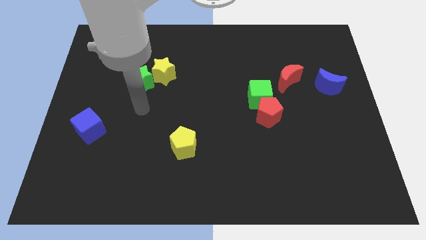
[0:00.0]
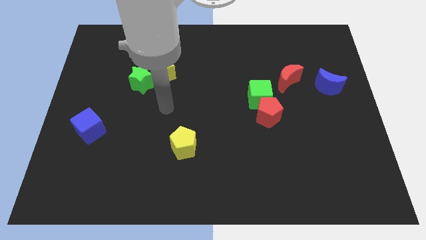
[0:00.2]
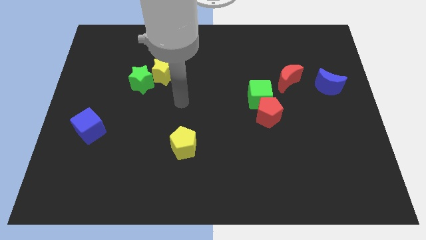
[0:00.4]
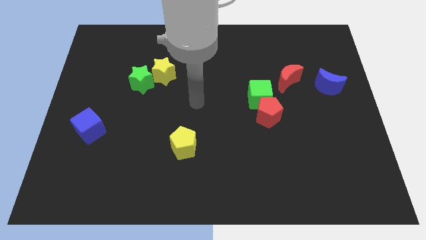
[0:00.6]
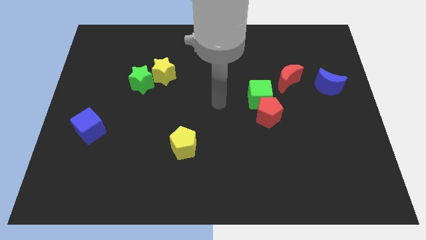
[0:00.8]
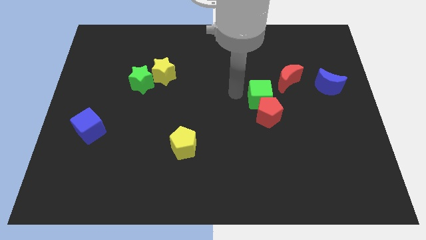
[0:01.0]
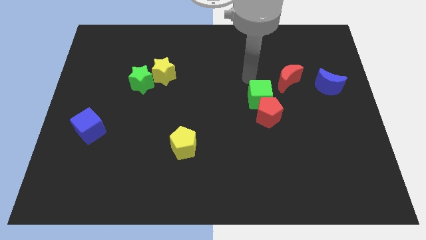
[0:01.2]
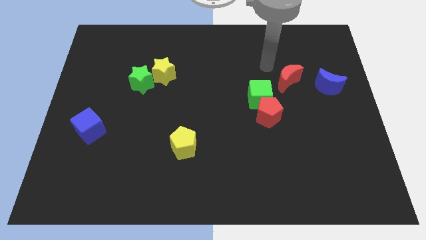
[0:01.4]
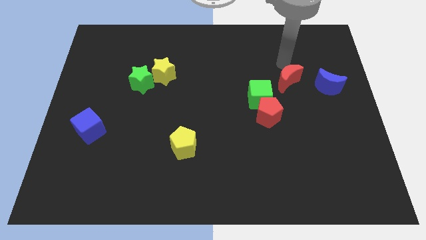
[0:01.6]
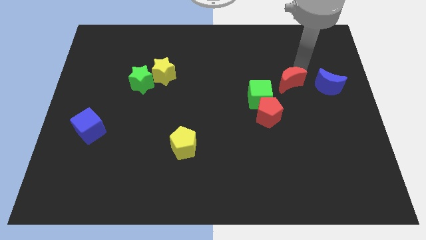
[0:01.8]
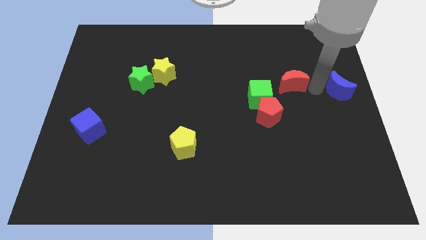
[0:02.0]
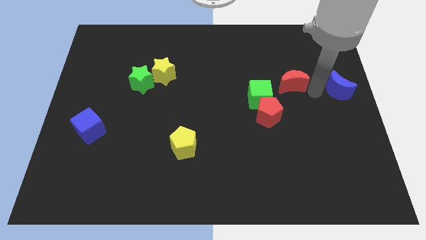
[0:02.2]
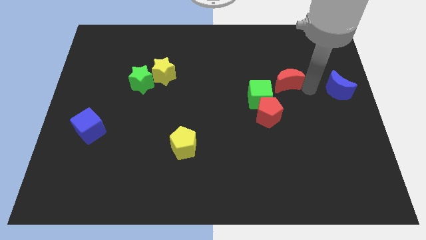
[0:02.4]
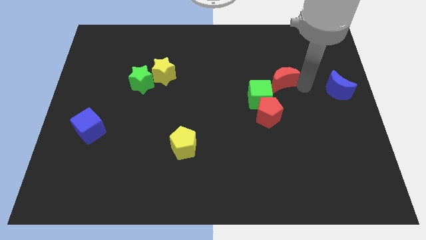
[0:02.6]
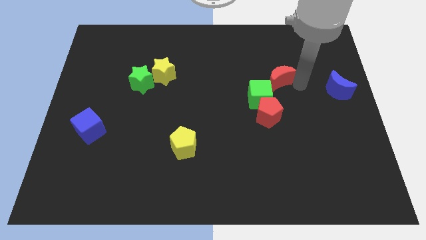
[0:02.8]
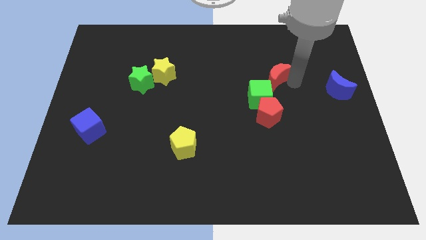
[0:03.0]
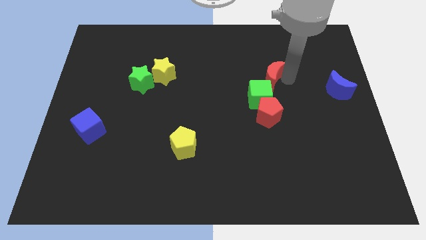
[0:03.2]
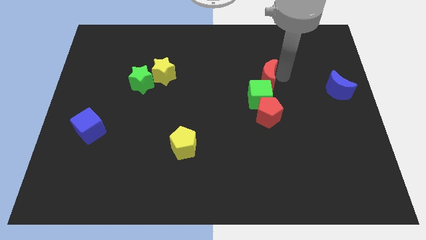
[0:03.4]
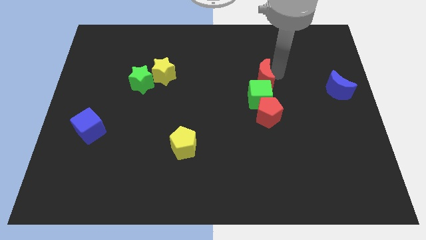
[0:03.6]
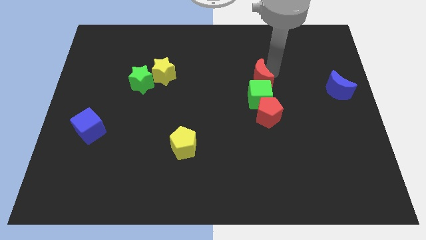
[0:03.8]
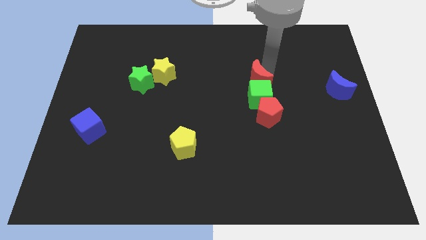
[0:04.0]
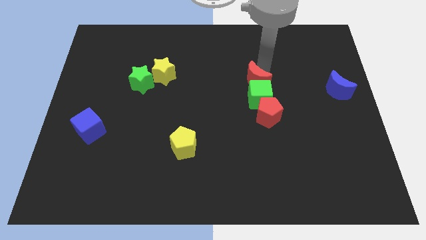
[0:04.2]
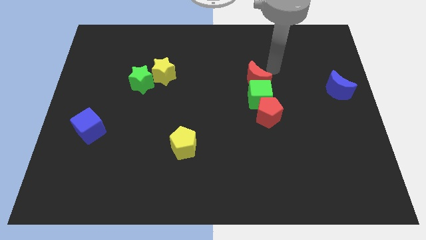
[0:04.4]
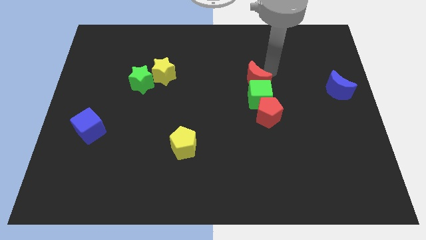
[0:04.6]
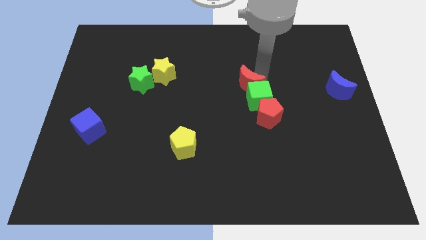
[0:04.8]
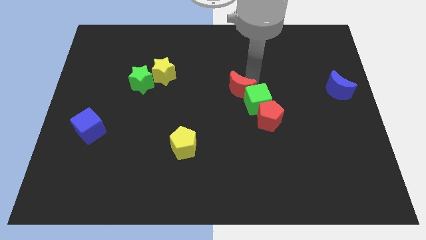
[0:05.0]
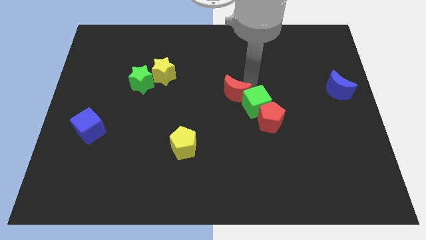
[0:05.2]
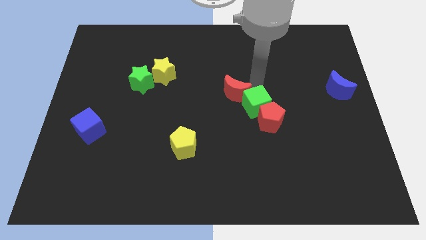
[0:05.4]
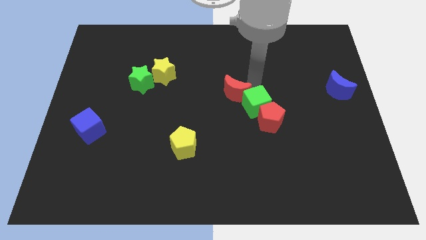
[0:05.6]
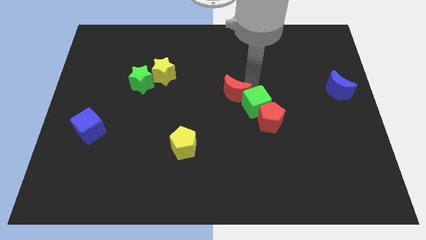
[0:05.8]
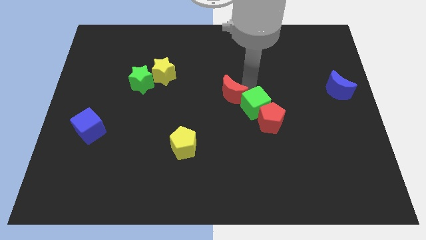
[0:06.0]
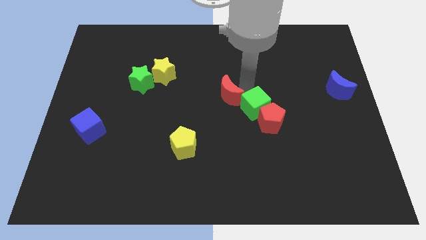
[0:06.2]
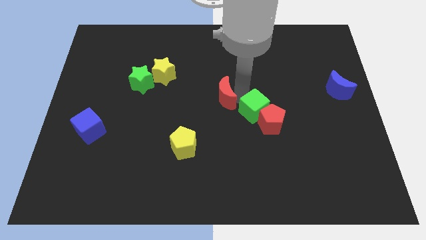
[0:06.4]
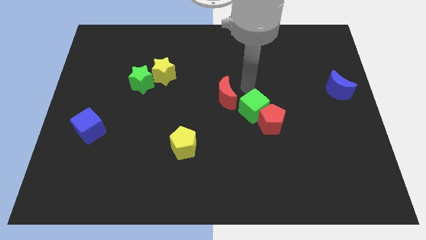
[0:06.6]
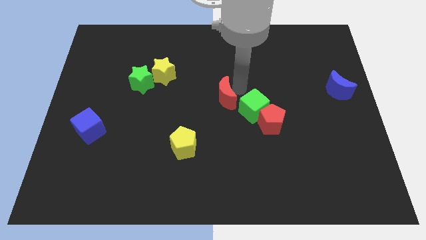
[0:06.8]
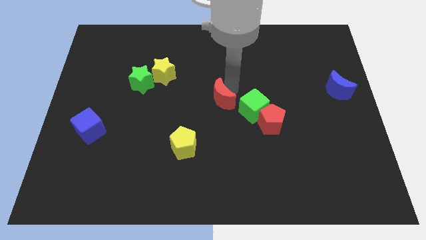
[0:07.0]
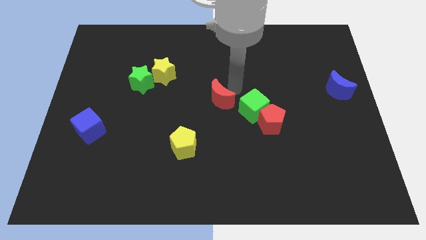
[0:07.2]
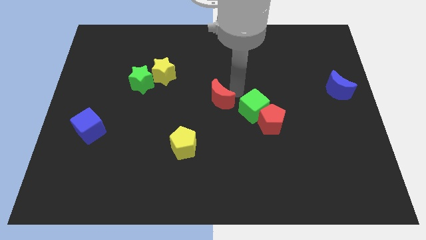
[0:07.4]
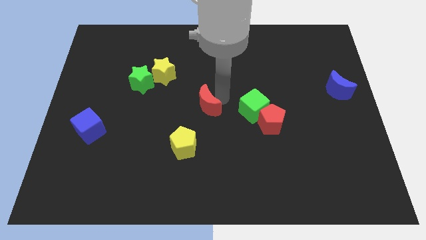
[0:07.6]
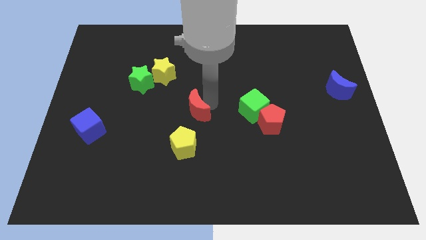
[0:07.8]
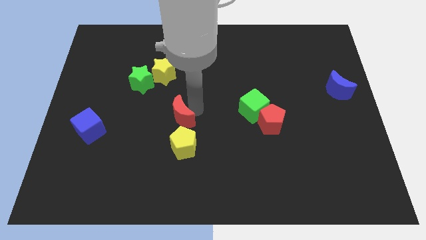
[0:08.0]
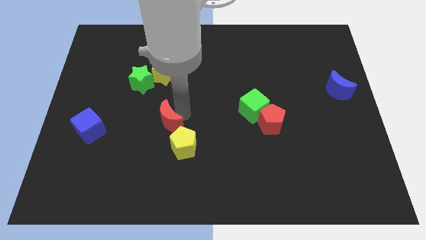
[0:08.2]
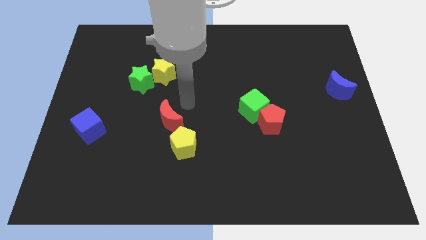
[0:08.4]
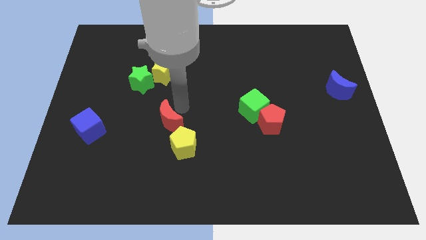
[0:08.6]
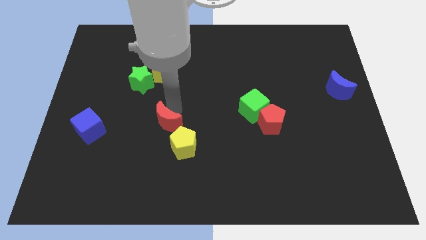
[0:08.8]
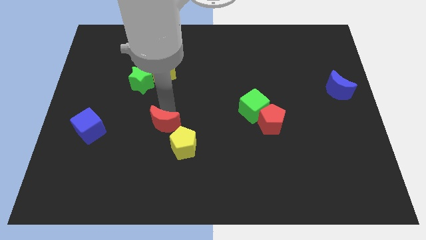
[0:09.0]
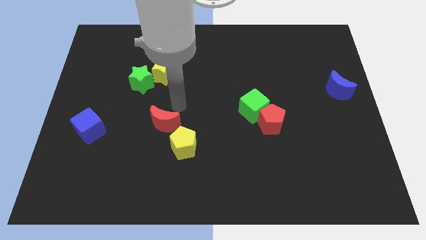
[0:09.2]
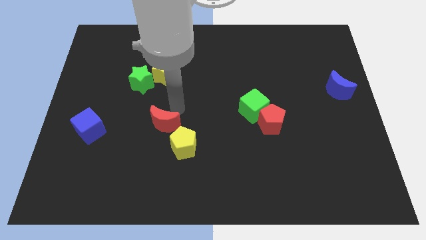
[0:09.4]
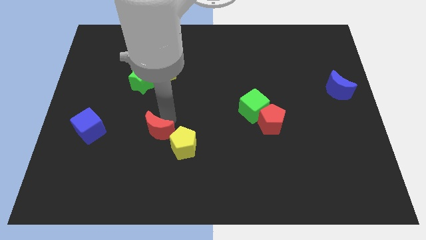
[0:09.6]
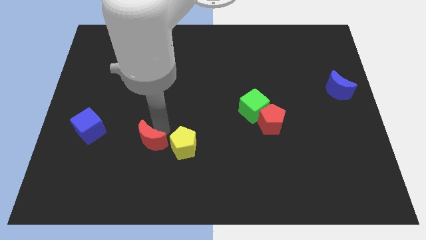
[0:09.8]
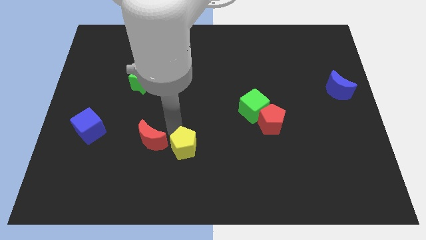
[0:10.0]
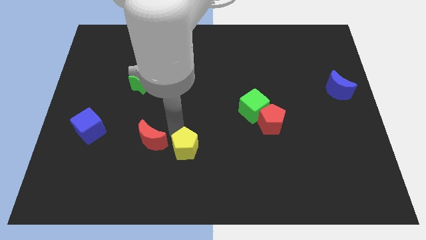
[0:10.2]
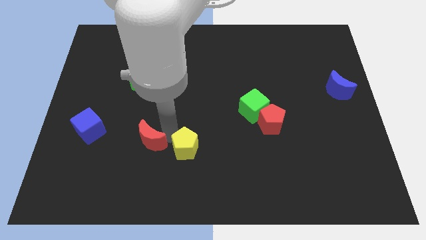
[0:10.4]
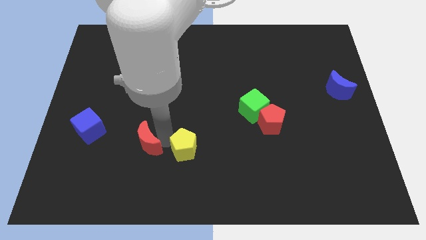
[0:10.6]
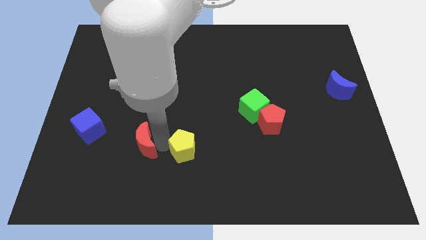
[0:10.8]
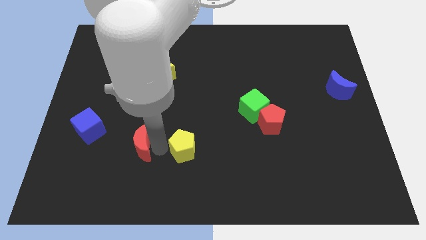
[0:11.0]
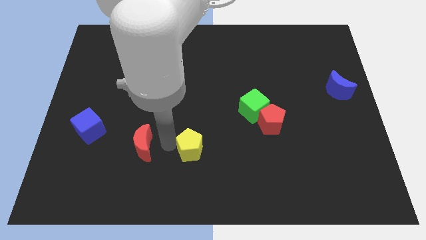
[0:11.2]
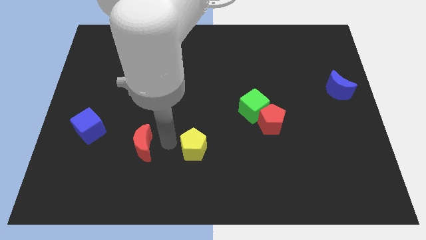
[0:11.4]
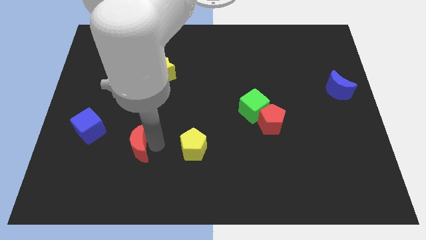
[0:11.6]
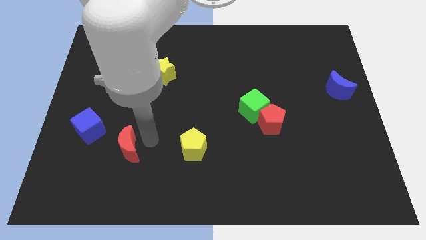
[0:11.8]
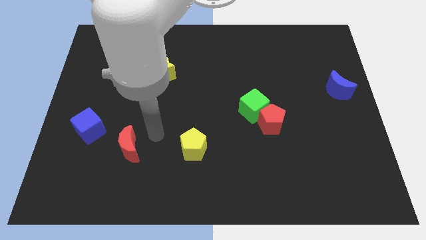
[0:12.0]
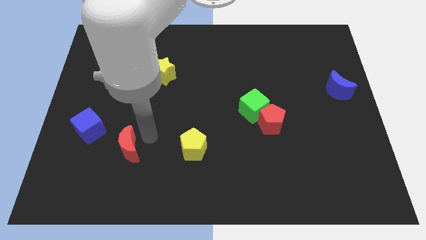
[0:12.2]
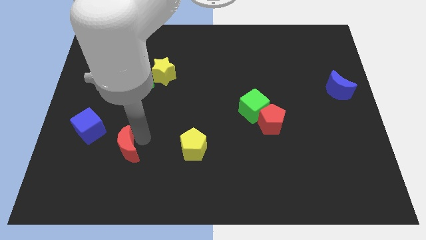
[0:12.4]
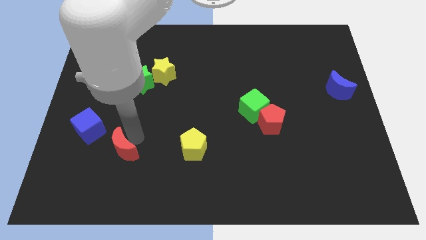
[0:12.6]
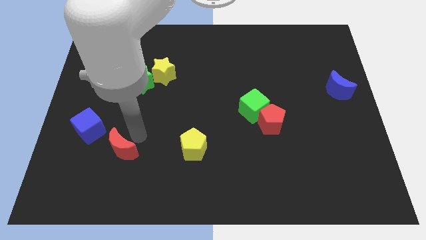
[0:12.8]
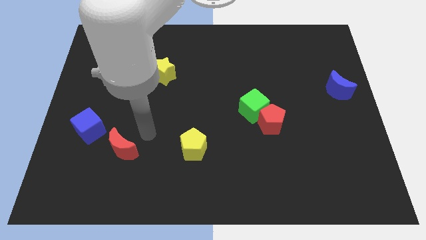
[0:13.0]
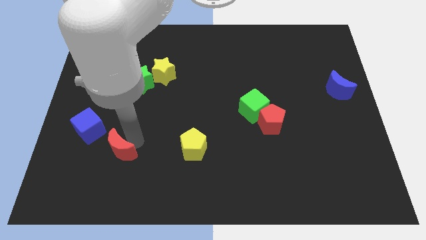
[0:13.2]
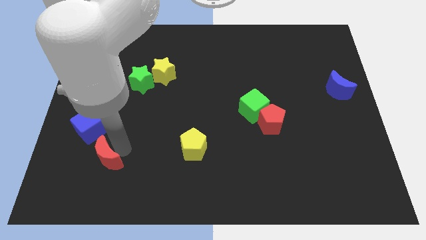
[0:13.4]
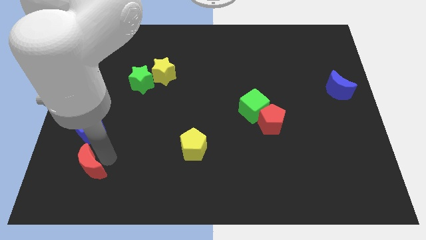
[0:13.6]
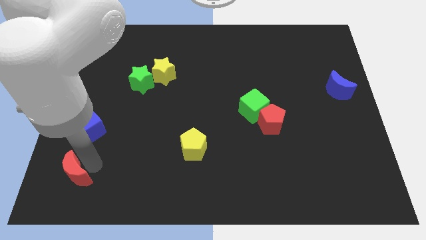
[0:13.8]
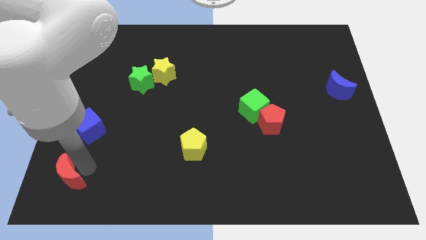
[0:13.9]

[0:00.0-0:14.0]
push the red moon to the bottom left of the board
